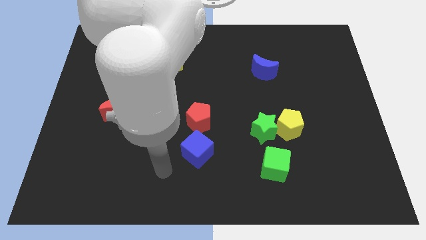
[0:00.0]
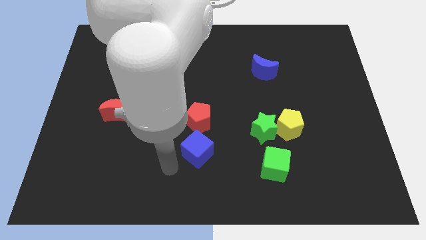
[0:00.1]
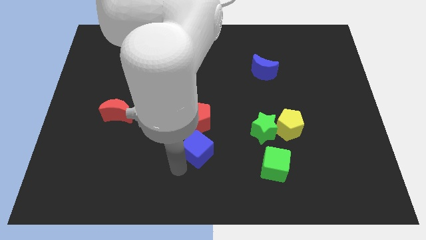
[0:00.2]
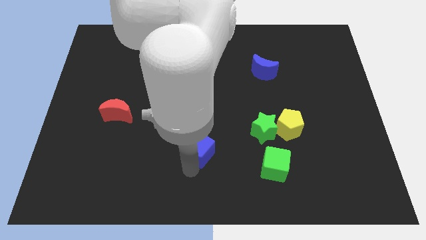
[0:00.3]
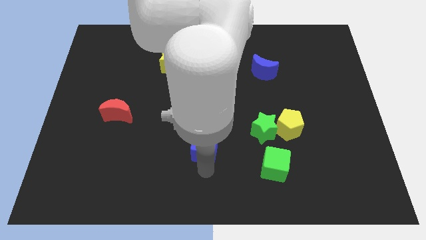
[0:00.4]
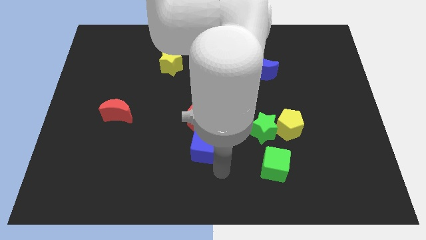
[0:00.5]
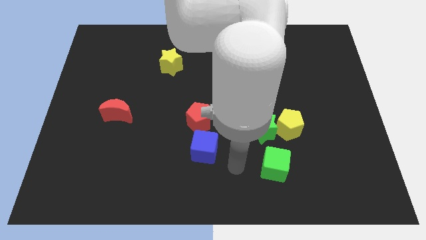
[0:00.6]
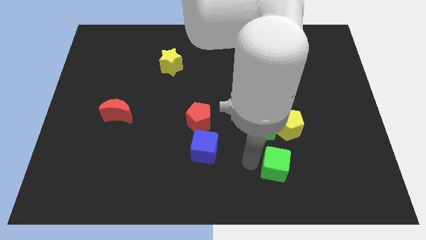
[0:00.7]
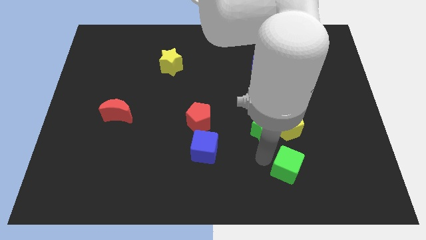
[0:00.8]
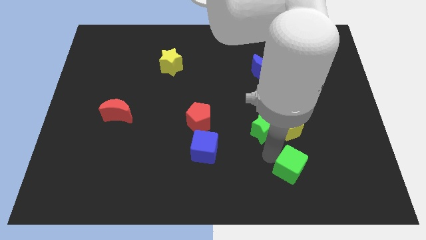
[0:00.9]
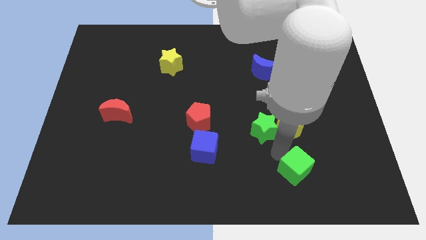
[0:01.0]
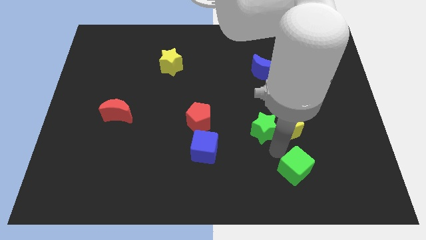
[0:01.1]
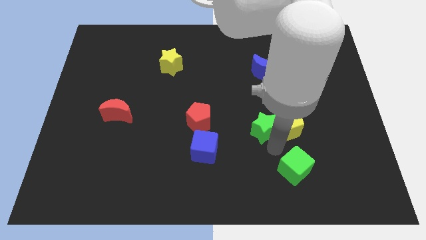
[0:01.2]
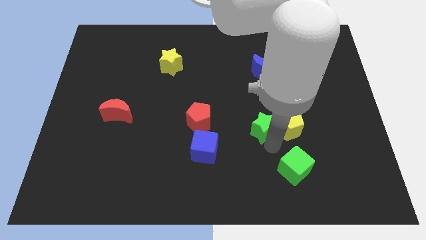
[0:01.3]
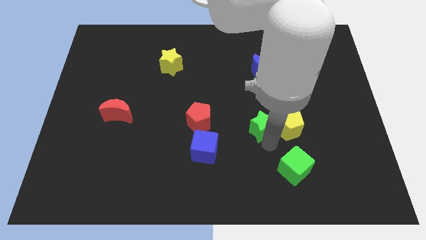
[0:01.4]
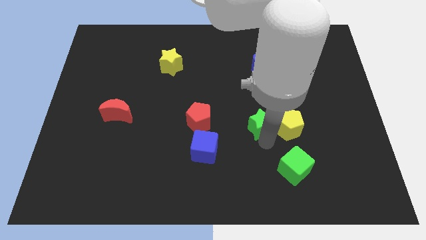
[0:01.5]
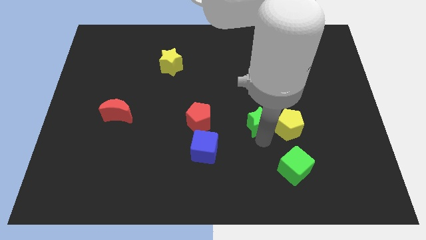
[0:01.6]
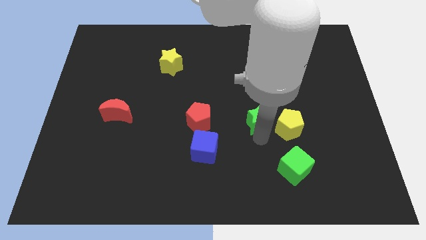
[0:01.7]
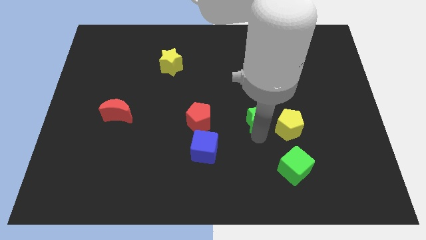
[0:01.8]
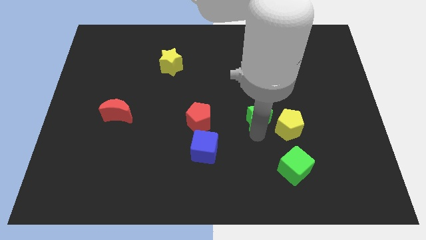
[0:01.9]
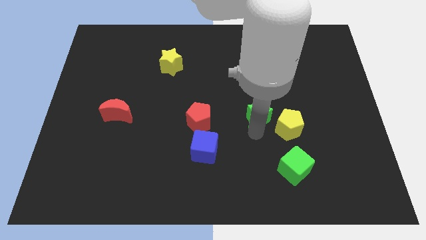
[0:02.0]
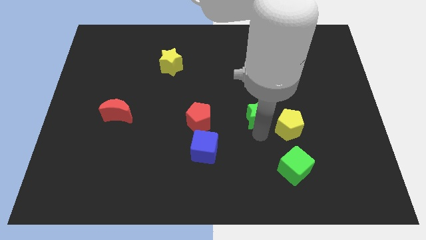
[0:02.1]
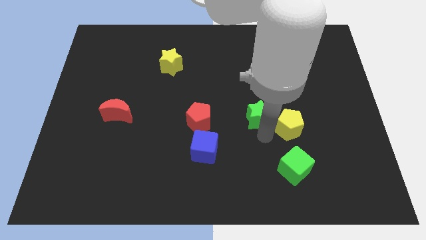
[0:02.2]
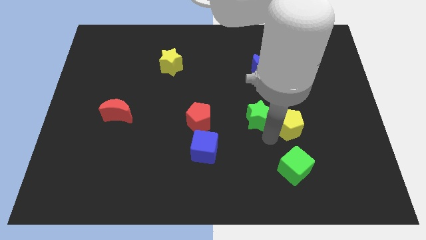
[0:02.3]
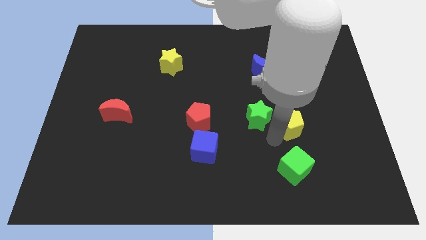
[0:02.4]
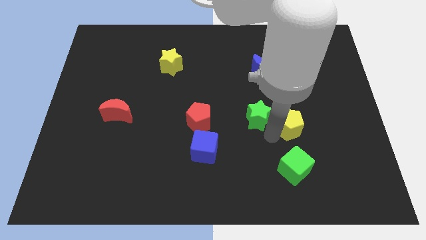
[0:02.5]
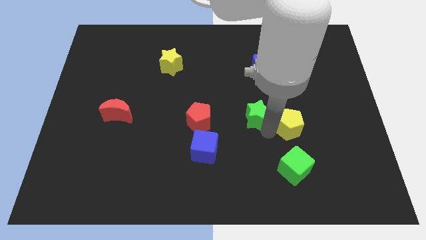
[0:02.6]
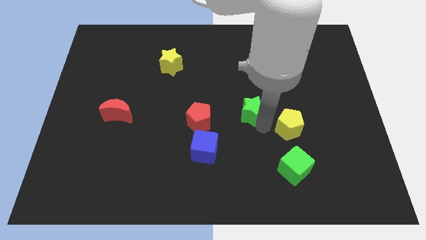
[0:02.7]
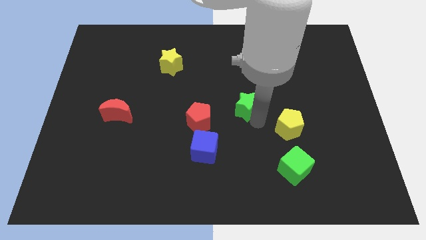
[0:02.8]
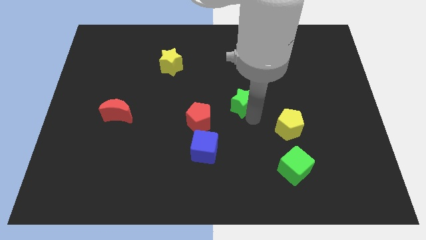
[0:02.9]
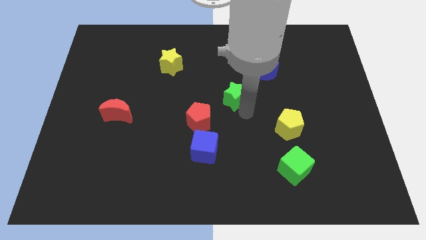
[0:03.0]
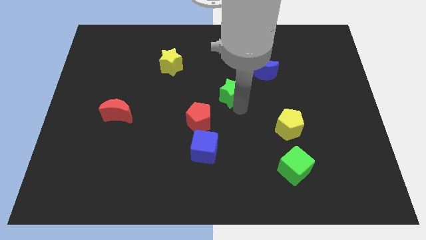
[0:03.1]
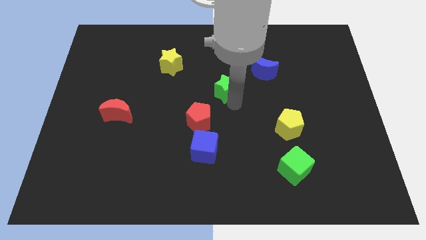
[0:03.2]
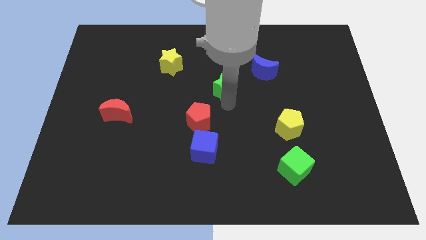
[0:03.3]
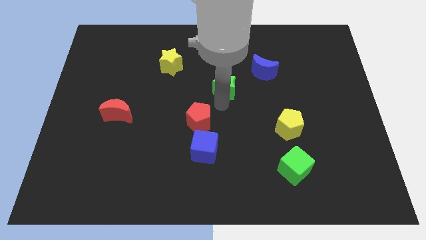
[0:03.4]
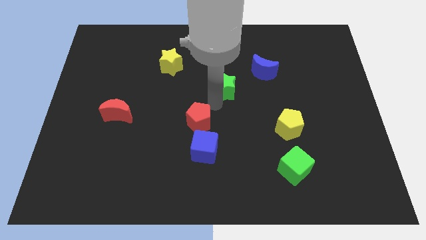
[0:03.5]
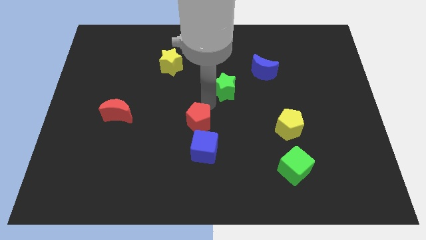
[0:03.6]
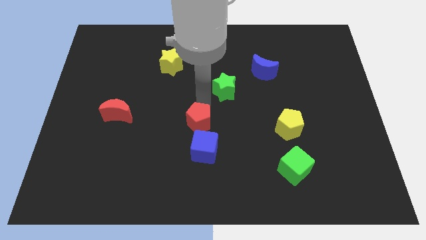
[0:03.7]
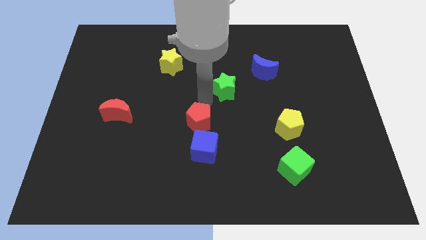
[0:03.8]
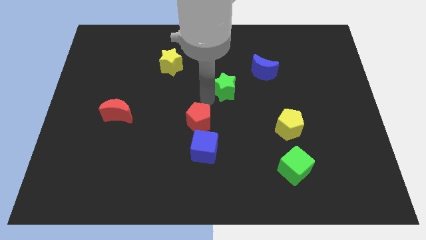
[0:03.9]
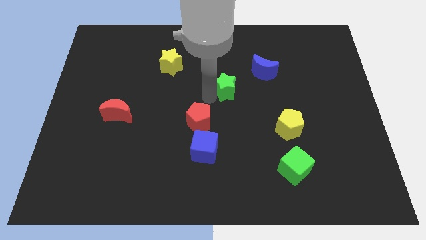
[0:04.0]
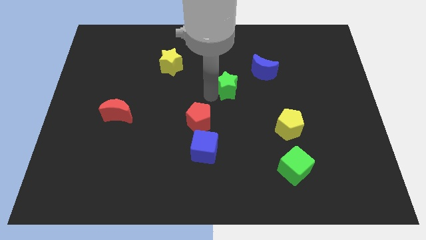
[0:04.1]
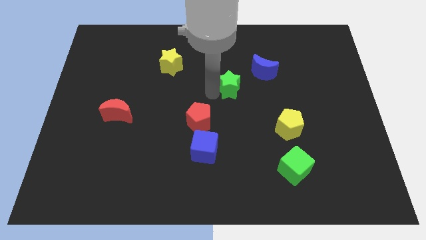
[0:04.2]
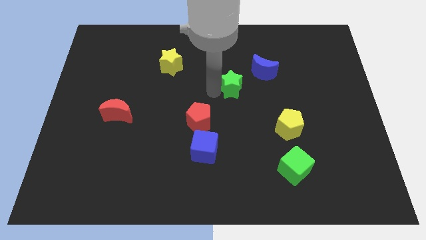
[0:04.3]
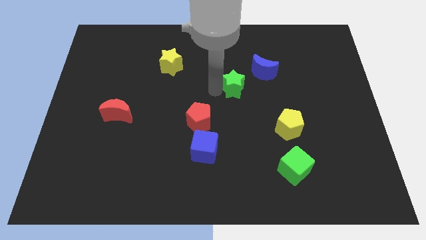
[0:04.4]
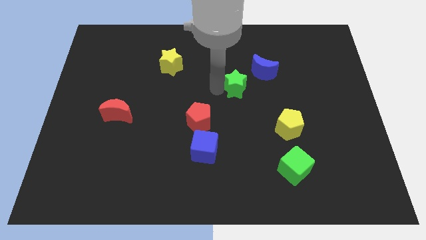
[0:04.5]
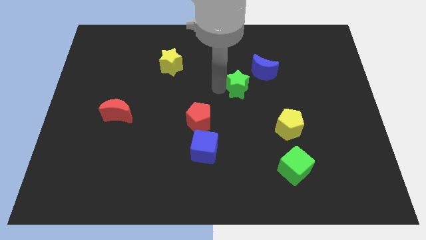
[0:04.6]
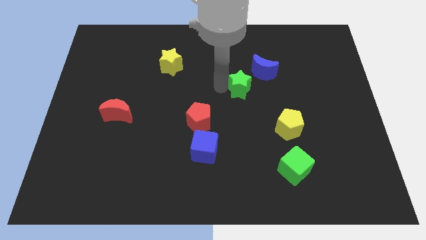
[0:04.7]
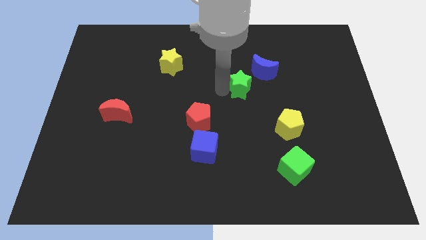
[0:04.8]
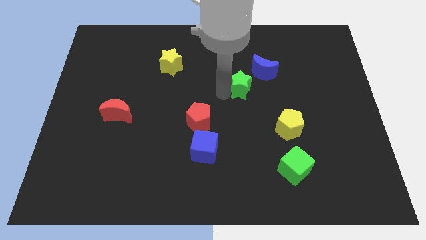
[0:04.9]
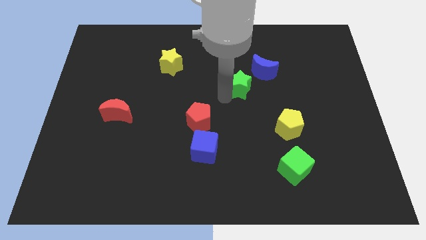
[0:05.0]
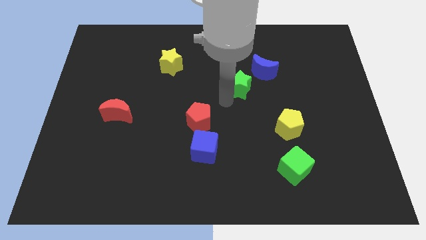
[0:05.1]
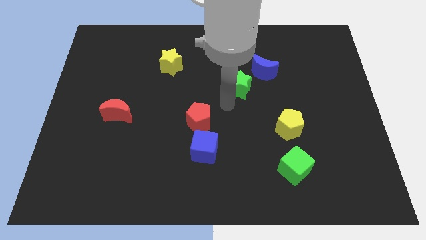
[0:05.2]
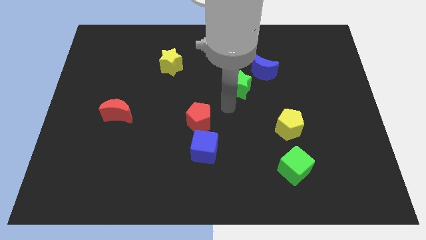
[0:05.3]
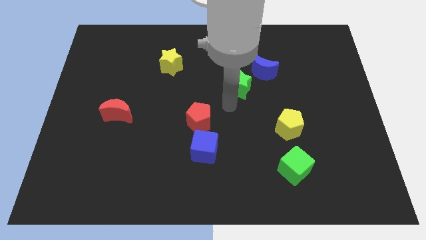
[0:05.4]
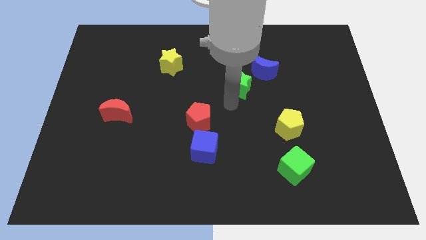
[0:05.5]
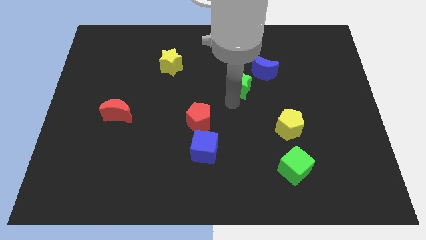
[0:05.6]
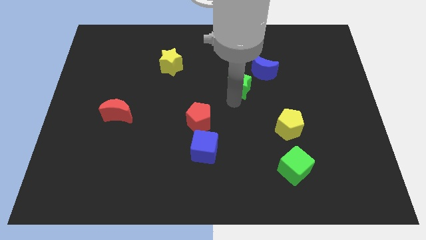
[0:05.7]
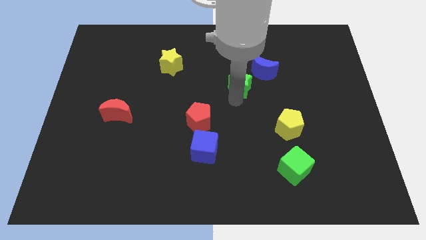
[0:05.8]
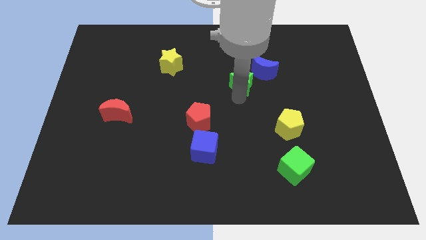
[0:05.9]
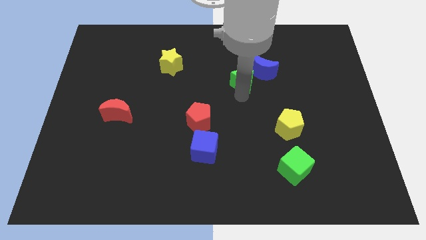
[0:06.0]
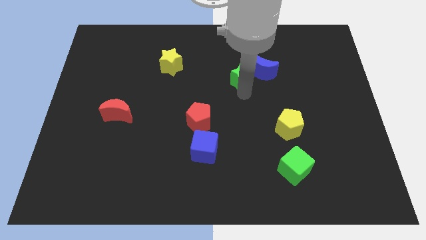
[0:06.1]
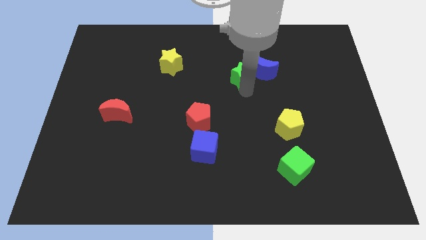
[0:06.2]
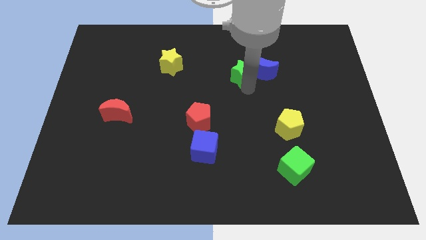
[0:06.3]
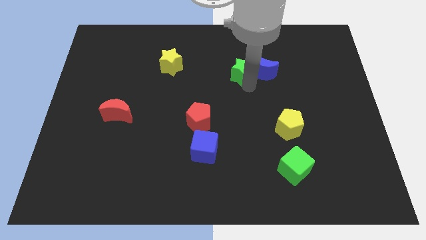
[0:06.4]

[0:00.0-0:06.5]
put the green star to the top left side of the blue moon
